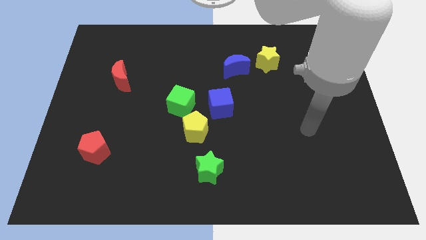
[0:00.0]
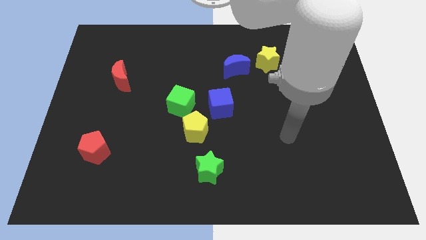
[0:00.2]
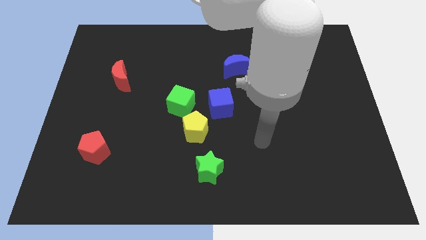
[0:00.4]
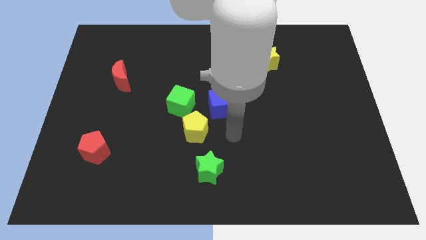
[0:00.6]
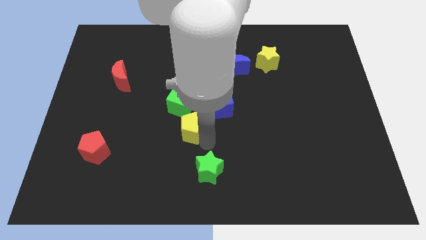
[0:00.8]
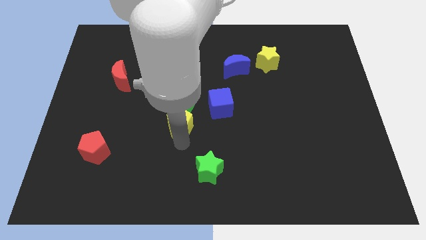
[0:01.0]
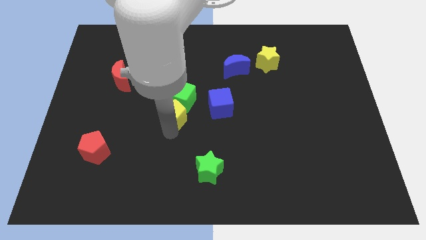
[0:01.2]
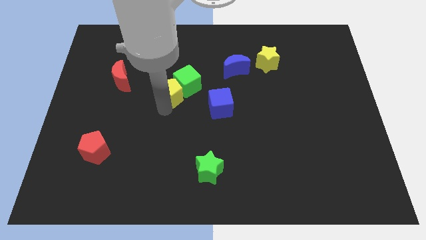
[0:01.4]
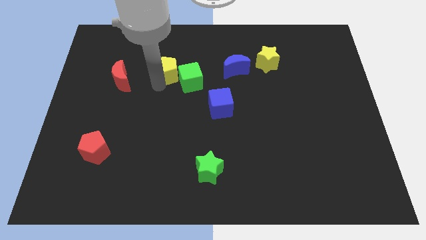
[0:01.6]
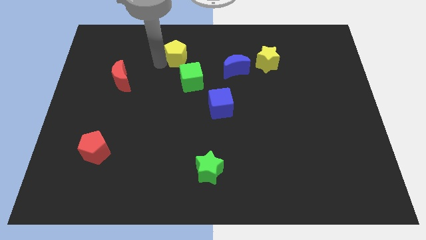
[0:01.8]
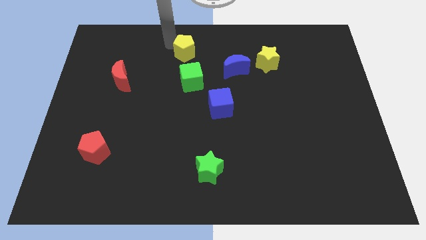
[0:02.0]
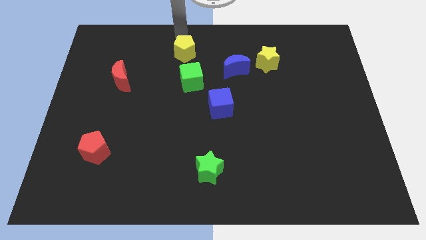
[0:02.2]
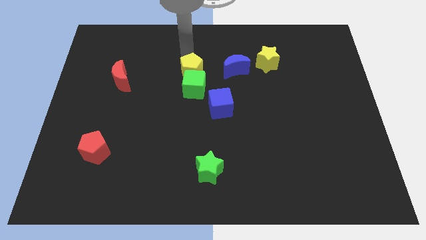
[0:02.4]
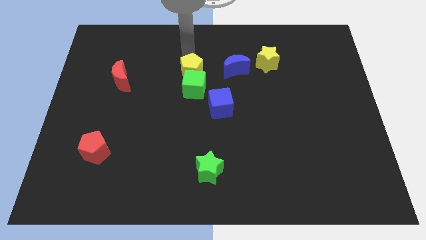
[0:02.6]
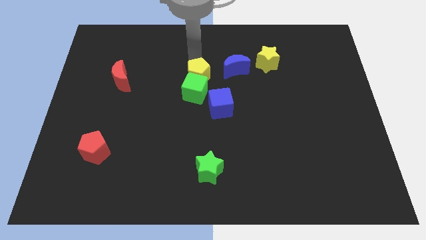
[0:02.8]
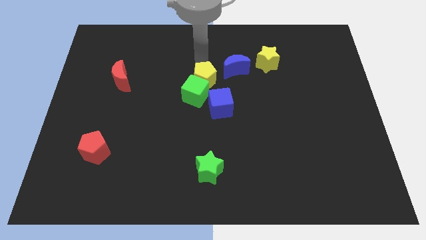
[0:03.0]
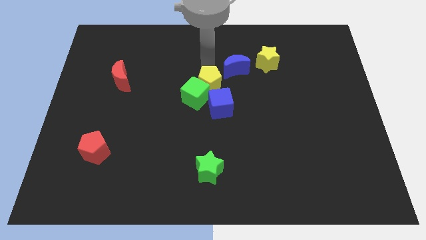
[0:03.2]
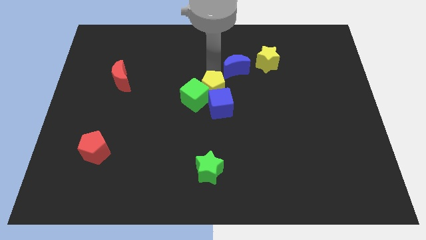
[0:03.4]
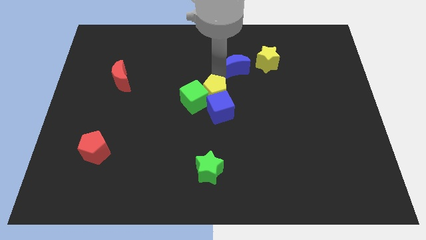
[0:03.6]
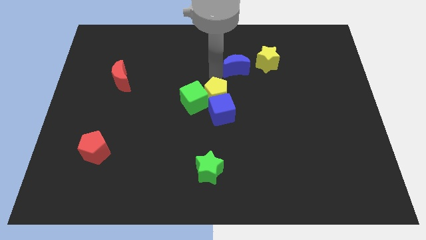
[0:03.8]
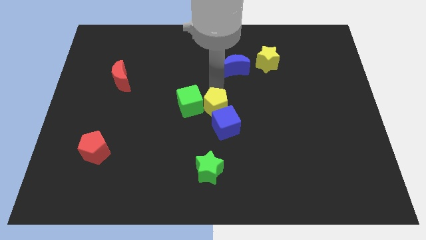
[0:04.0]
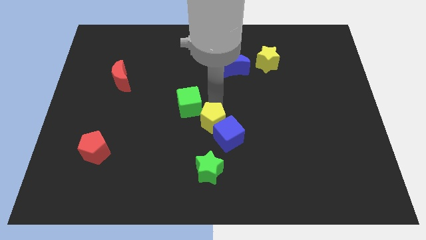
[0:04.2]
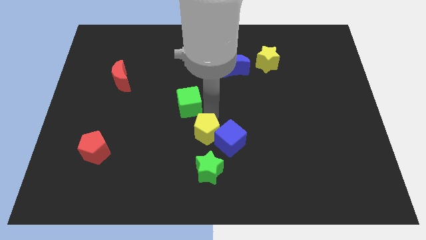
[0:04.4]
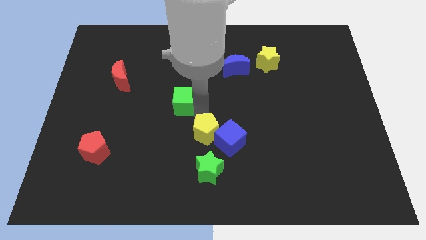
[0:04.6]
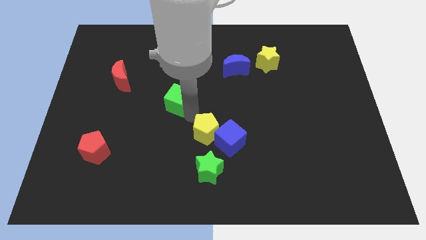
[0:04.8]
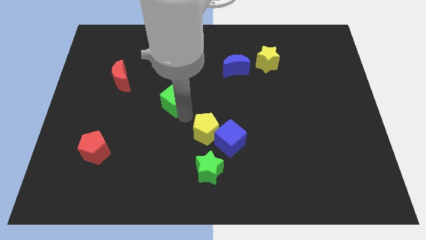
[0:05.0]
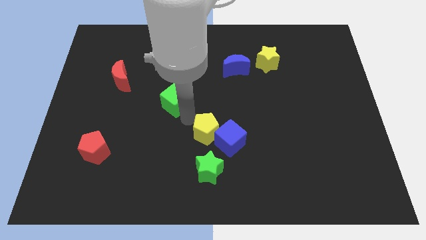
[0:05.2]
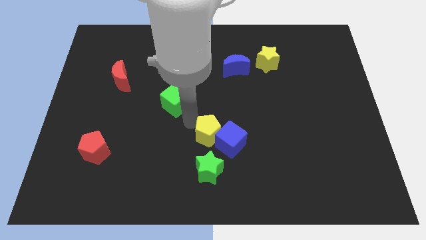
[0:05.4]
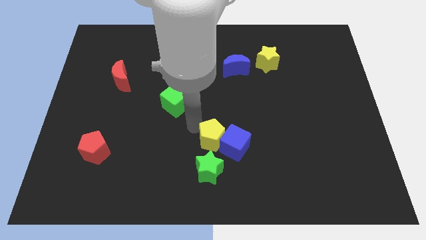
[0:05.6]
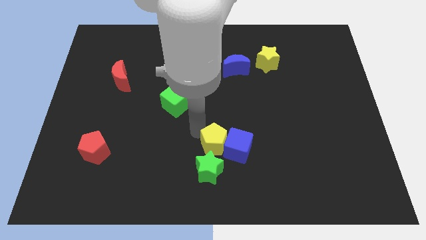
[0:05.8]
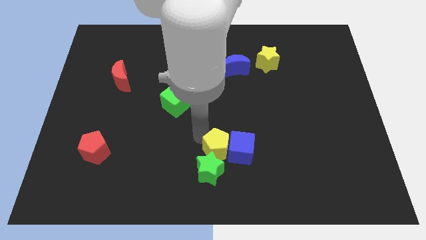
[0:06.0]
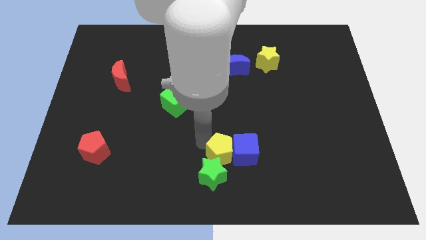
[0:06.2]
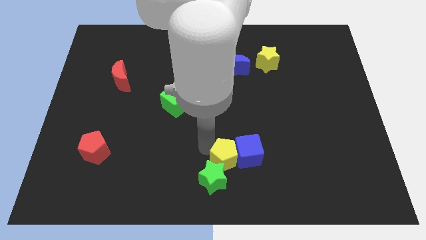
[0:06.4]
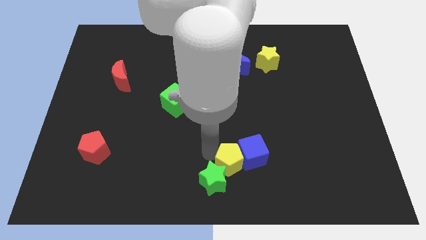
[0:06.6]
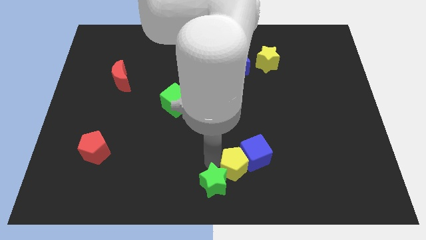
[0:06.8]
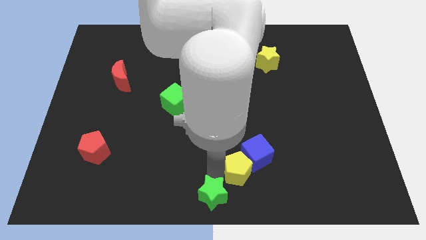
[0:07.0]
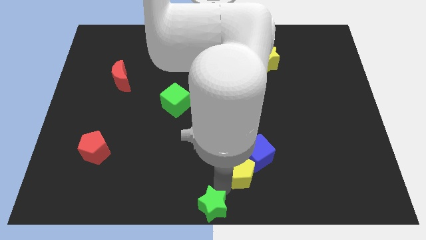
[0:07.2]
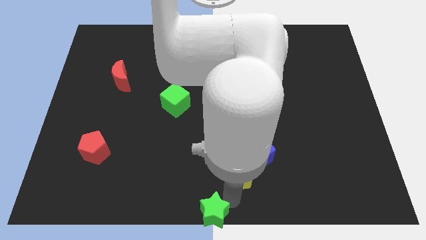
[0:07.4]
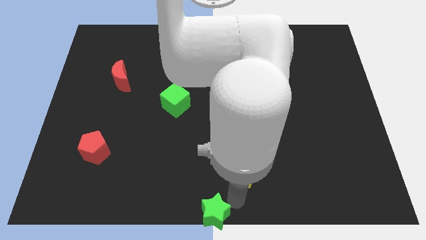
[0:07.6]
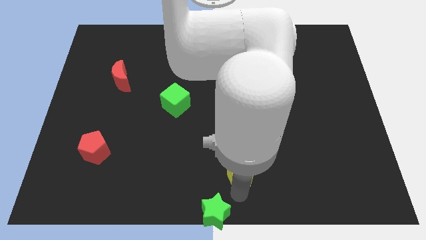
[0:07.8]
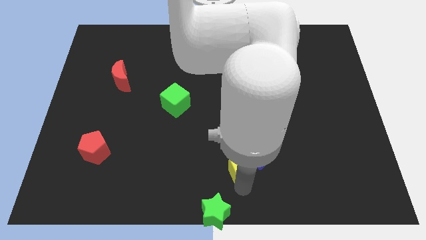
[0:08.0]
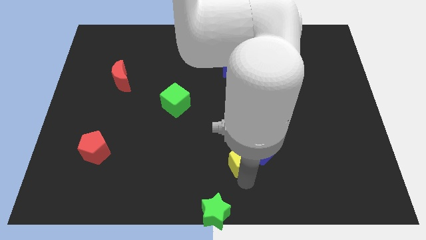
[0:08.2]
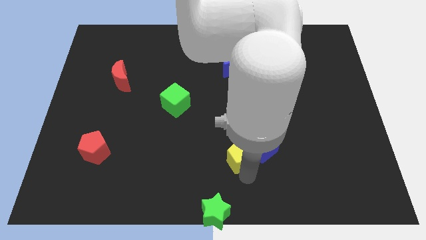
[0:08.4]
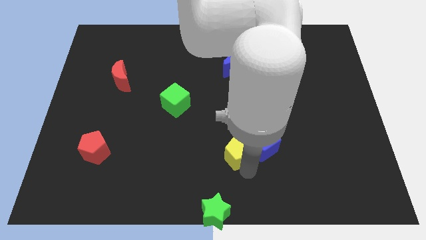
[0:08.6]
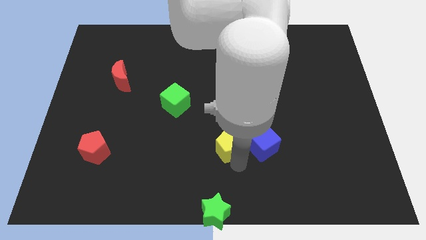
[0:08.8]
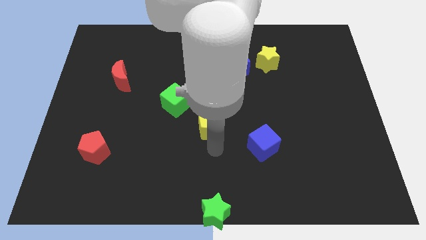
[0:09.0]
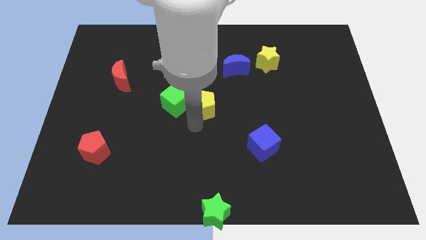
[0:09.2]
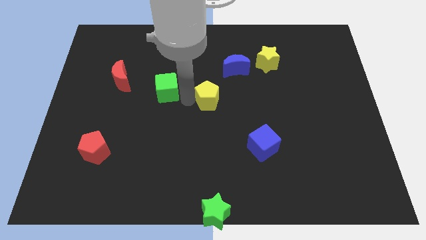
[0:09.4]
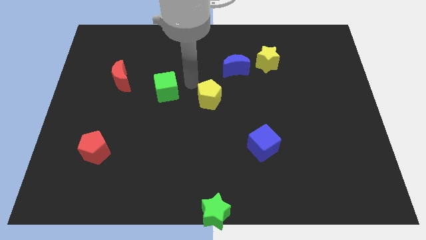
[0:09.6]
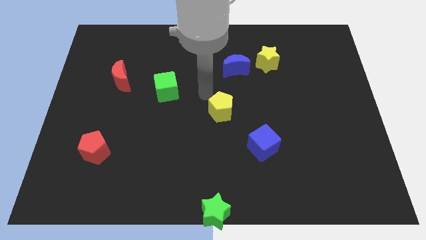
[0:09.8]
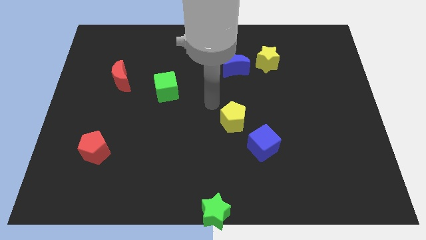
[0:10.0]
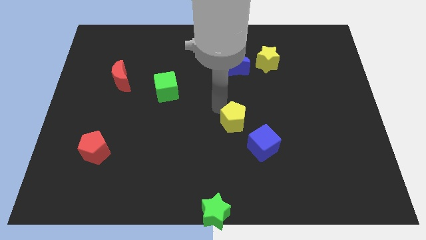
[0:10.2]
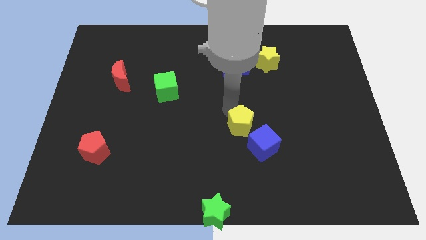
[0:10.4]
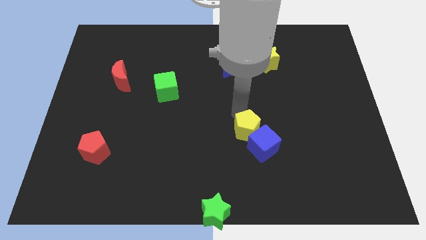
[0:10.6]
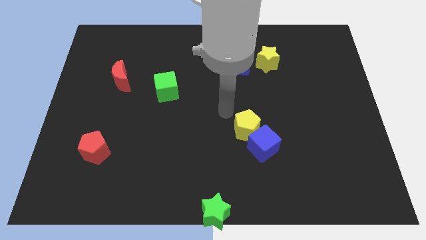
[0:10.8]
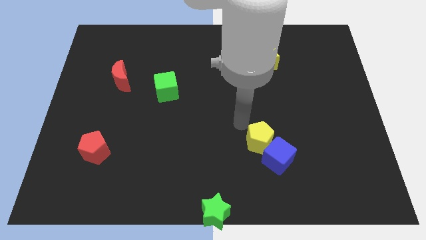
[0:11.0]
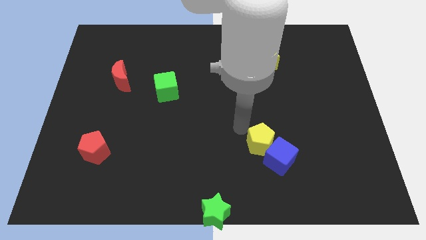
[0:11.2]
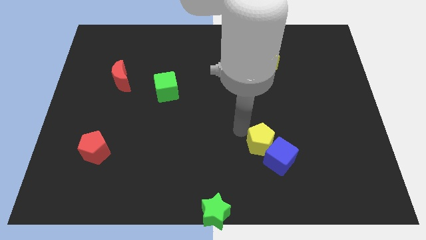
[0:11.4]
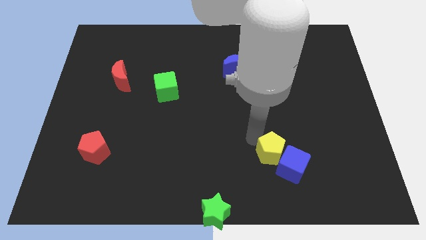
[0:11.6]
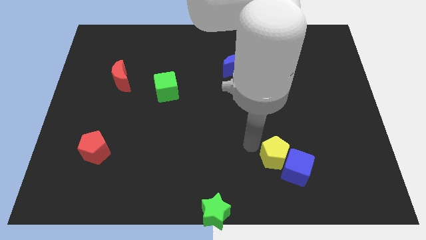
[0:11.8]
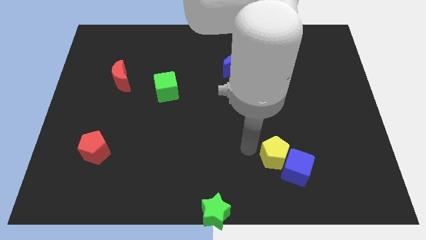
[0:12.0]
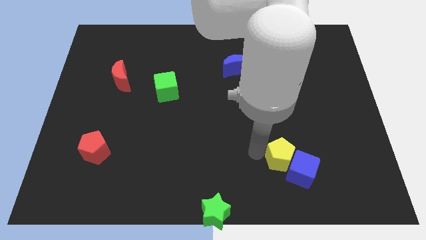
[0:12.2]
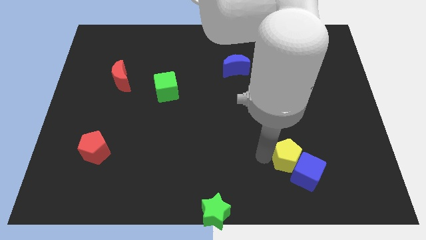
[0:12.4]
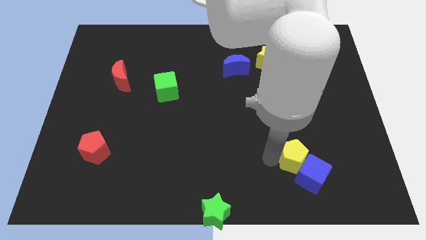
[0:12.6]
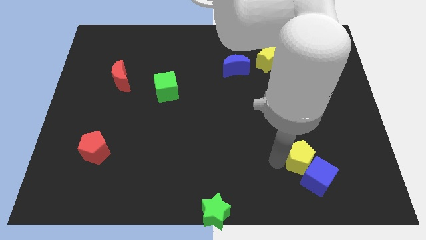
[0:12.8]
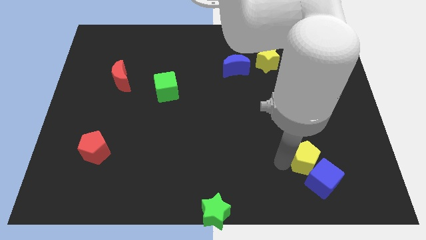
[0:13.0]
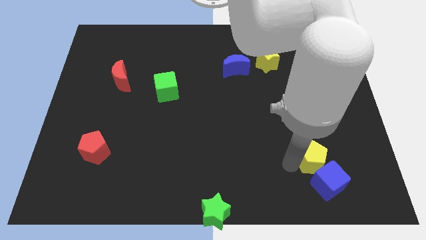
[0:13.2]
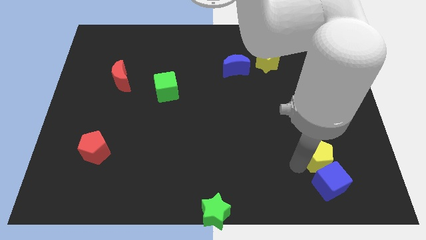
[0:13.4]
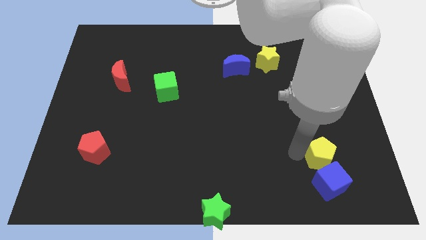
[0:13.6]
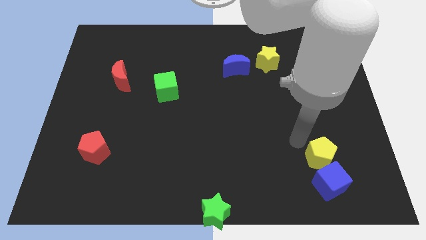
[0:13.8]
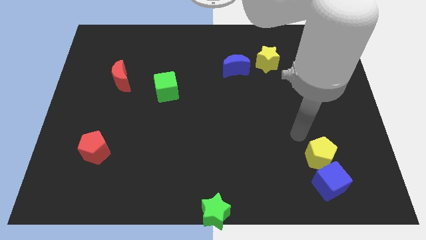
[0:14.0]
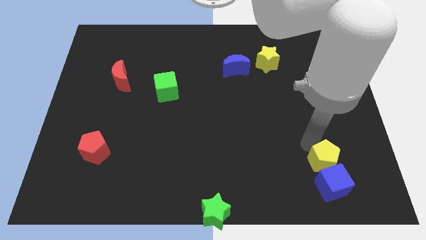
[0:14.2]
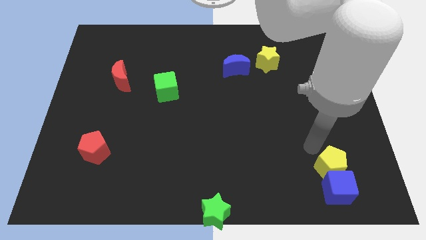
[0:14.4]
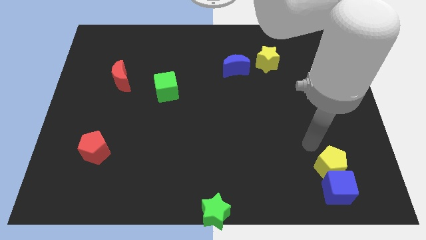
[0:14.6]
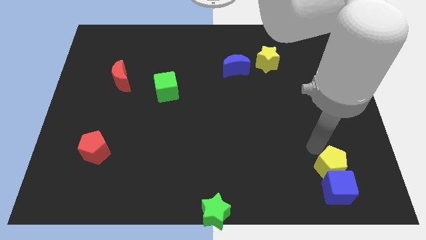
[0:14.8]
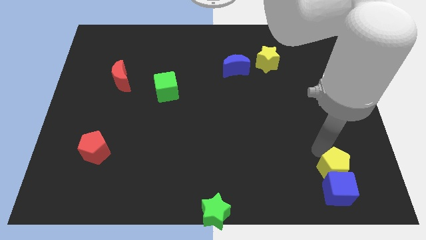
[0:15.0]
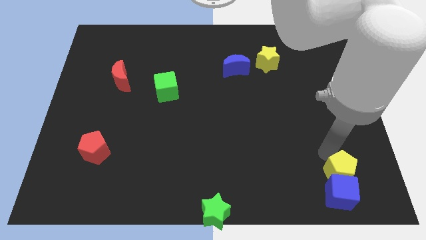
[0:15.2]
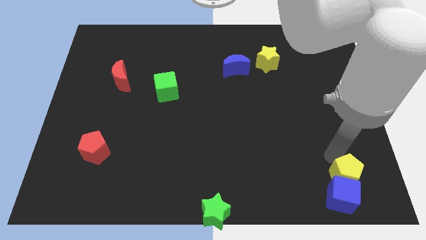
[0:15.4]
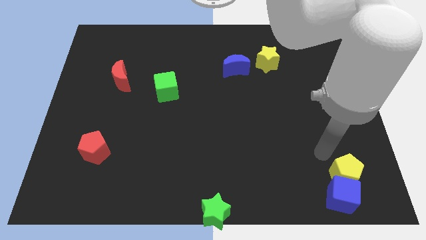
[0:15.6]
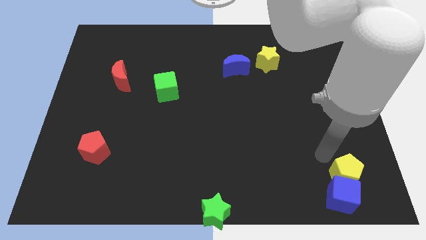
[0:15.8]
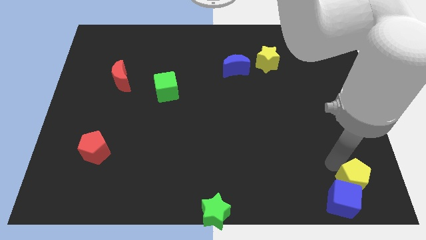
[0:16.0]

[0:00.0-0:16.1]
move the yellow pentagon to the bottom right of the board
